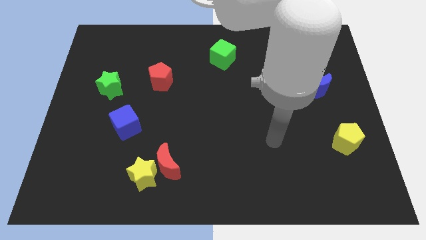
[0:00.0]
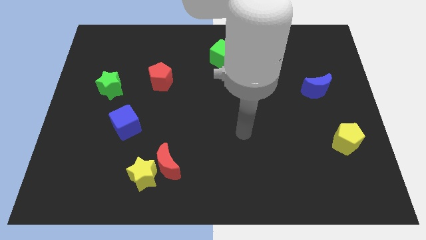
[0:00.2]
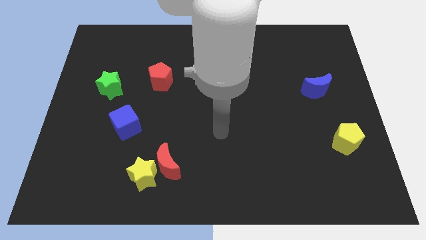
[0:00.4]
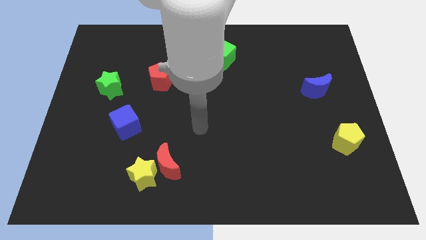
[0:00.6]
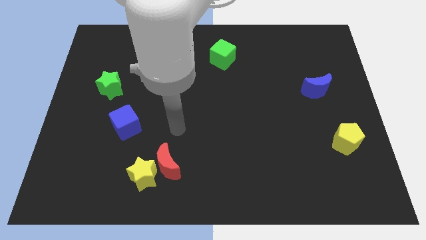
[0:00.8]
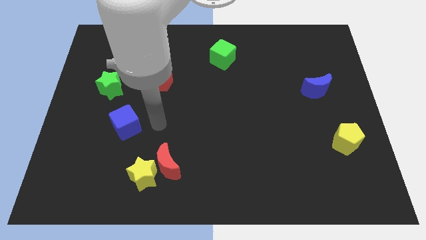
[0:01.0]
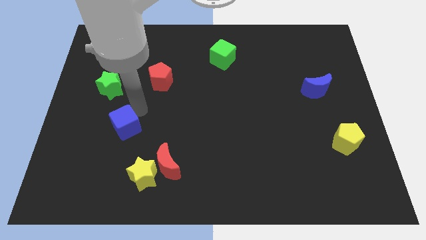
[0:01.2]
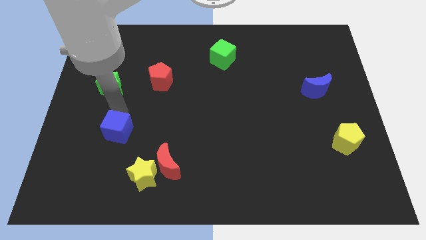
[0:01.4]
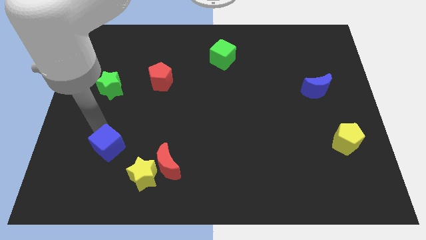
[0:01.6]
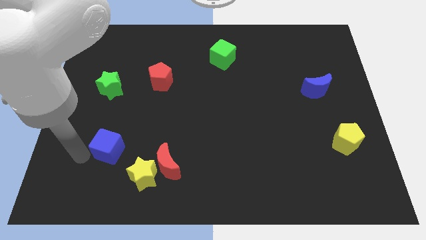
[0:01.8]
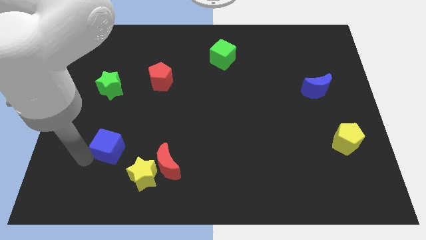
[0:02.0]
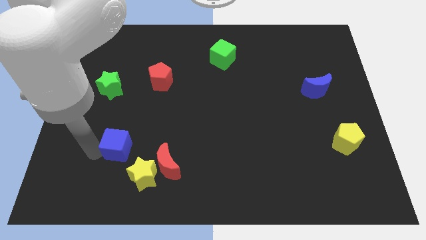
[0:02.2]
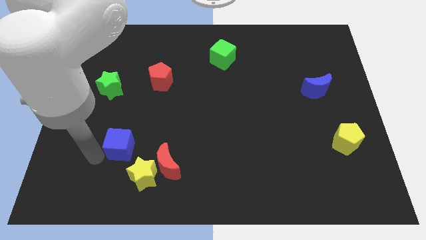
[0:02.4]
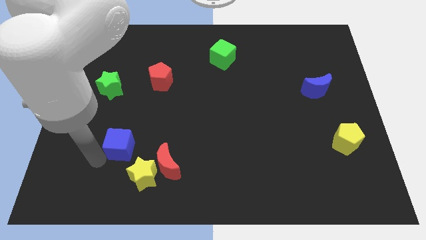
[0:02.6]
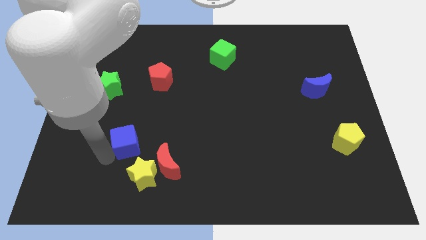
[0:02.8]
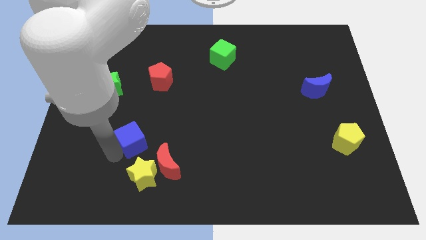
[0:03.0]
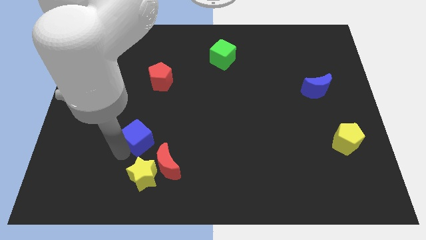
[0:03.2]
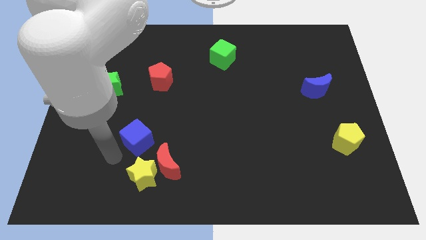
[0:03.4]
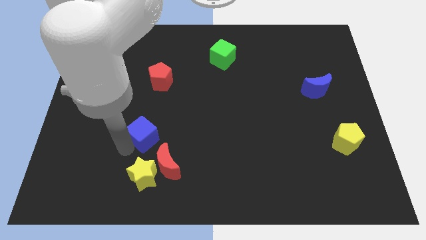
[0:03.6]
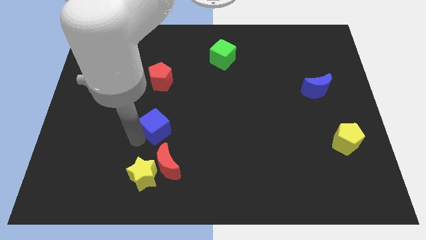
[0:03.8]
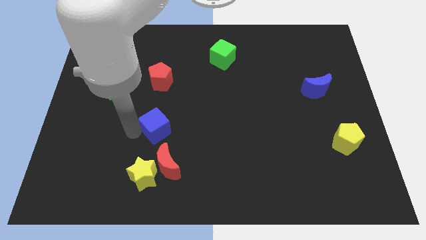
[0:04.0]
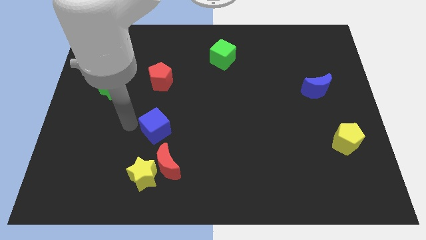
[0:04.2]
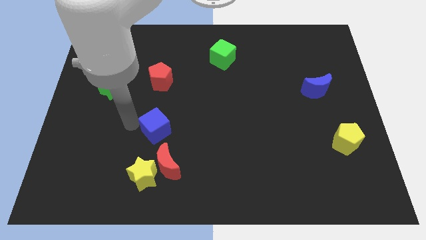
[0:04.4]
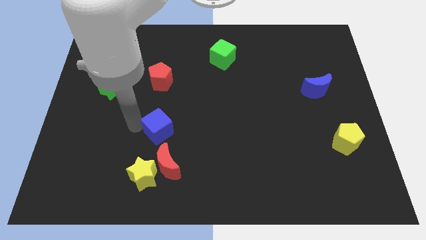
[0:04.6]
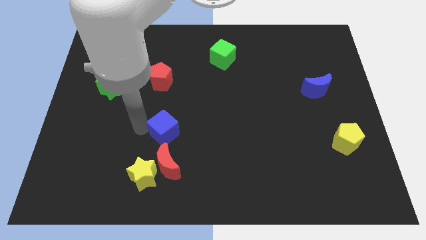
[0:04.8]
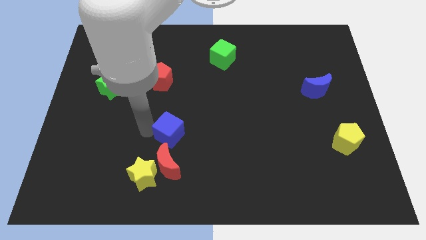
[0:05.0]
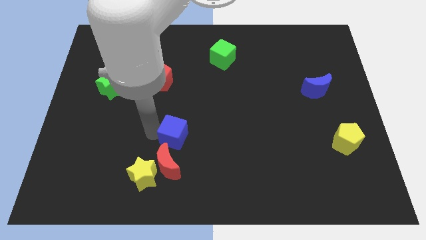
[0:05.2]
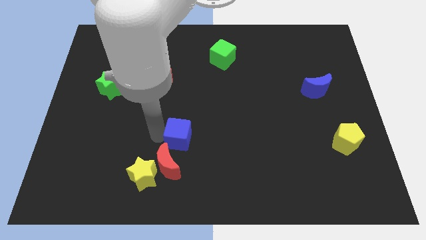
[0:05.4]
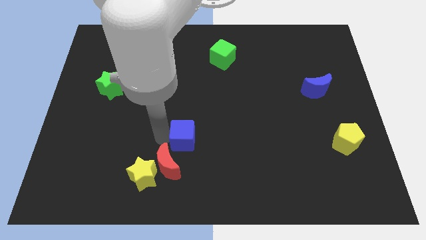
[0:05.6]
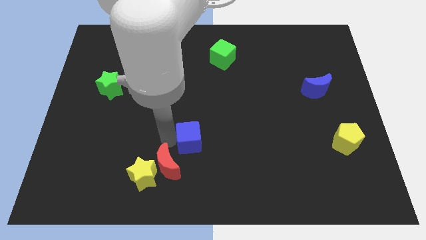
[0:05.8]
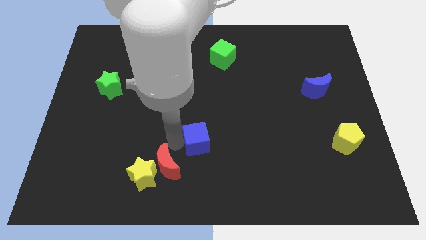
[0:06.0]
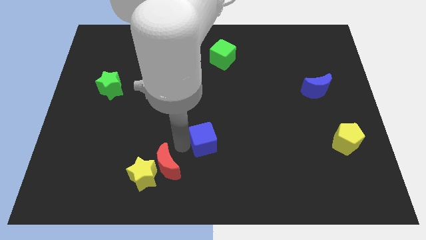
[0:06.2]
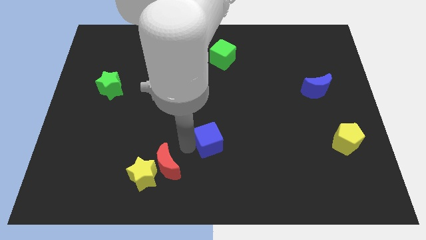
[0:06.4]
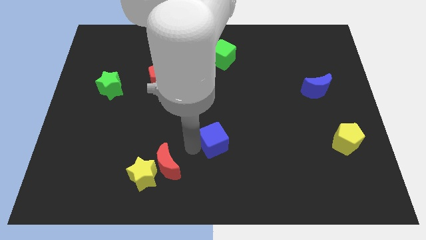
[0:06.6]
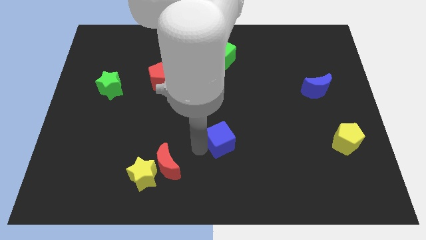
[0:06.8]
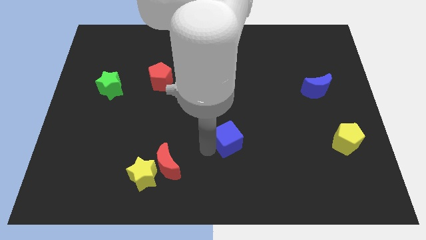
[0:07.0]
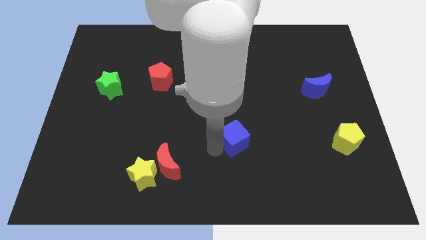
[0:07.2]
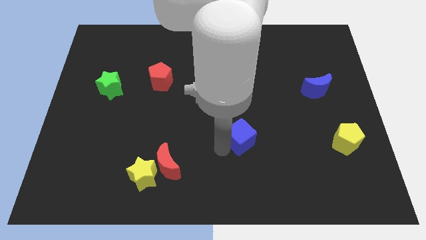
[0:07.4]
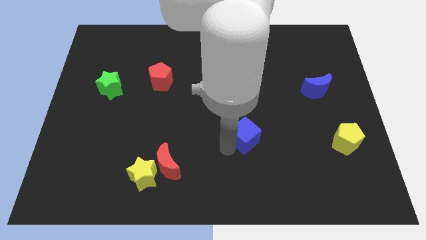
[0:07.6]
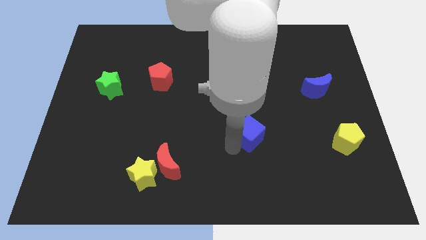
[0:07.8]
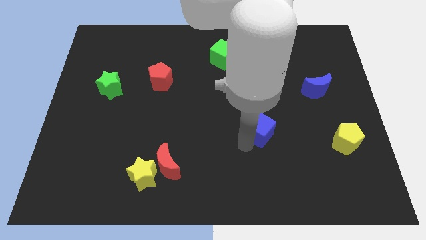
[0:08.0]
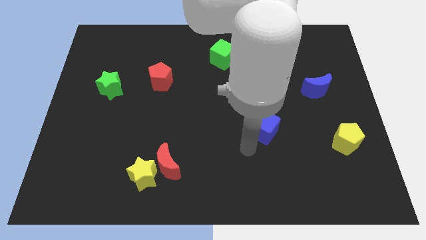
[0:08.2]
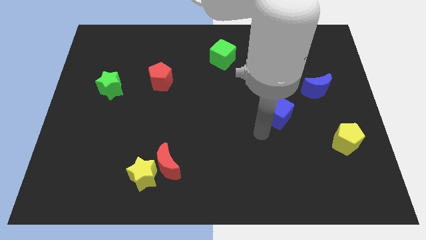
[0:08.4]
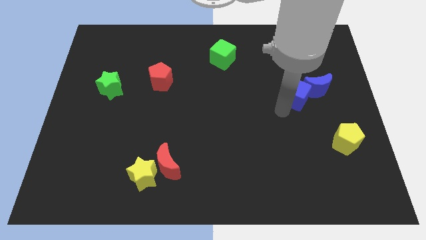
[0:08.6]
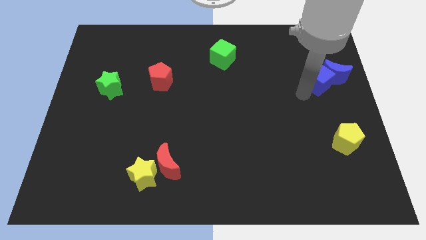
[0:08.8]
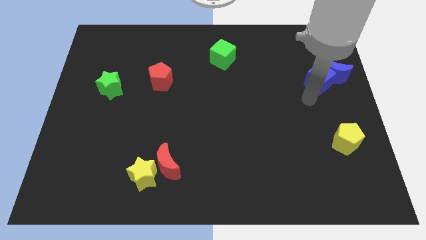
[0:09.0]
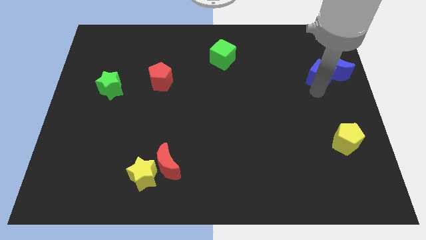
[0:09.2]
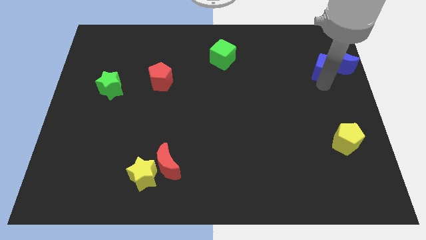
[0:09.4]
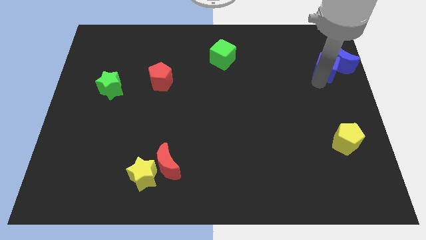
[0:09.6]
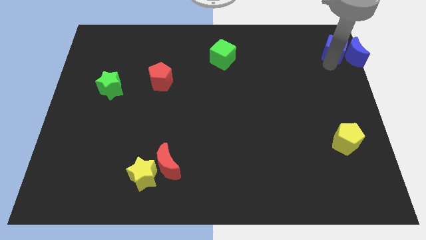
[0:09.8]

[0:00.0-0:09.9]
put the blue cube to the upper right corner

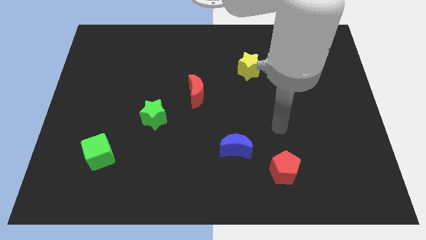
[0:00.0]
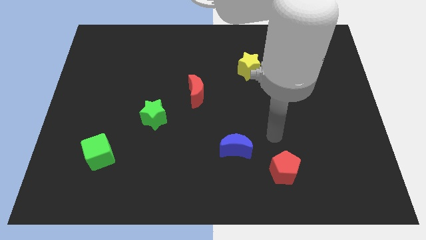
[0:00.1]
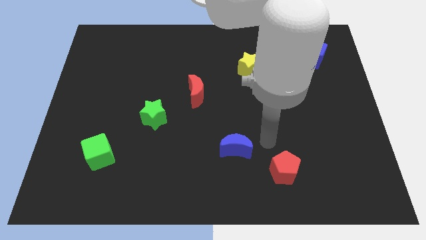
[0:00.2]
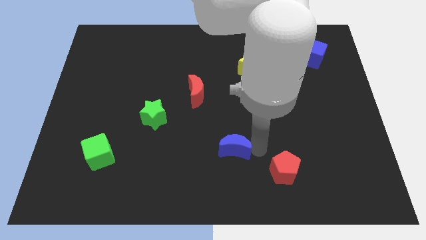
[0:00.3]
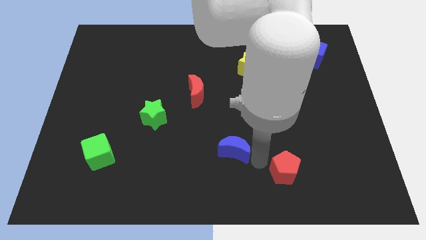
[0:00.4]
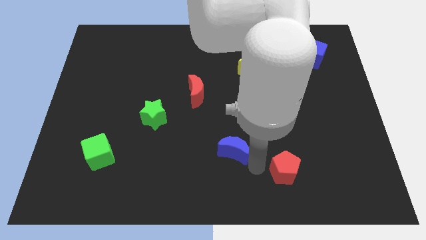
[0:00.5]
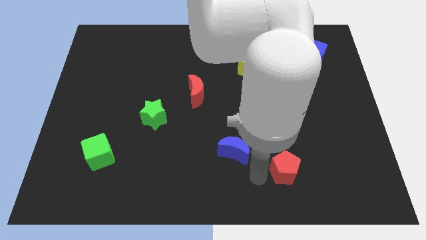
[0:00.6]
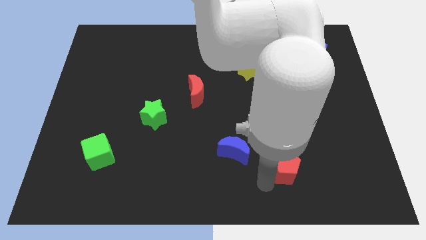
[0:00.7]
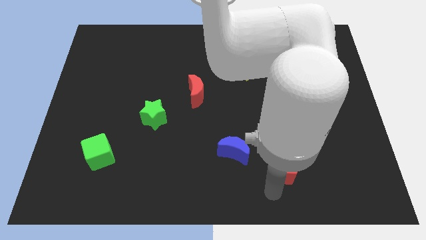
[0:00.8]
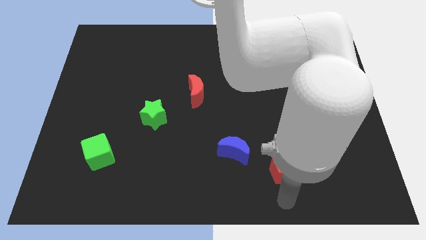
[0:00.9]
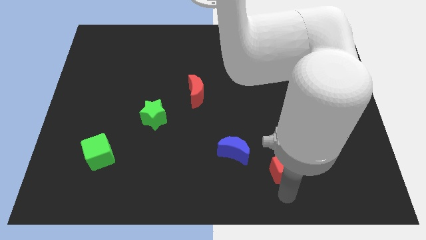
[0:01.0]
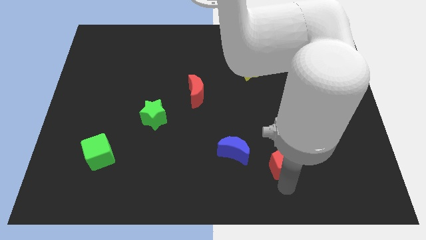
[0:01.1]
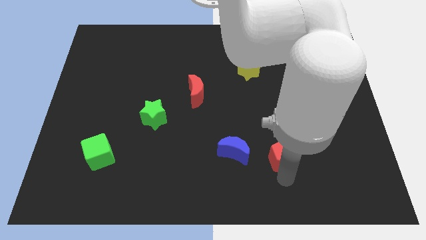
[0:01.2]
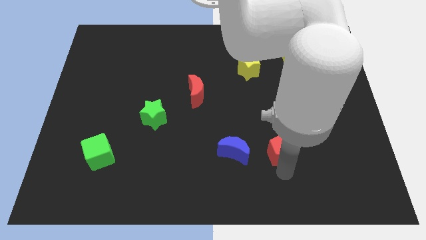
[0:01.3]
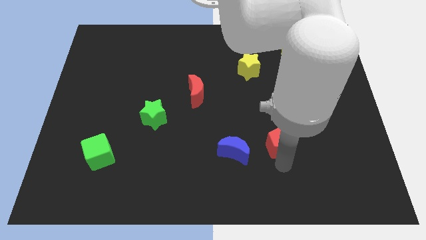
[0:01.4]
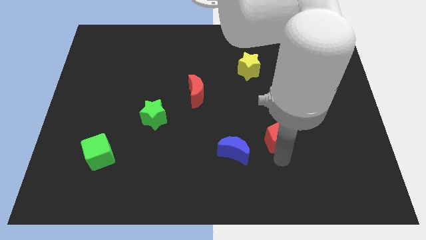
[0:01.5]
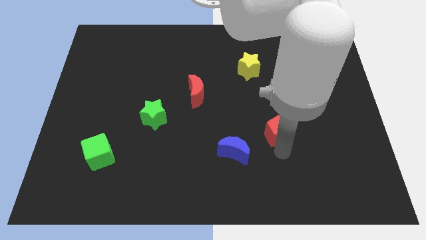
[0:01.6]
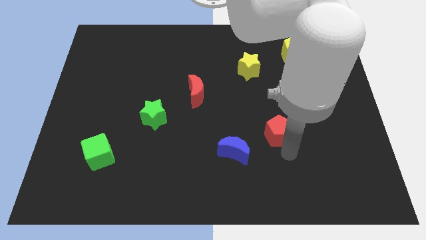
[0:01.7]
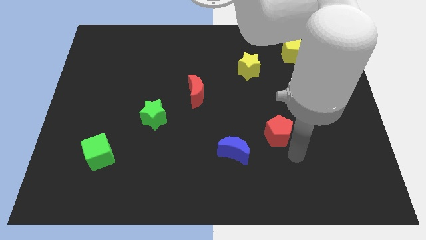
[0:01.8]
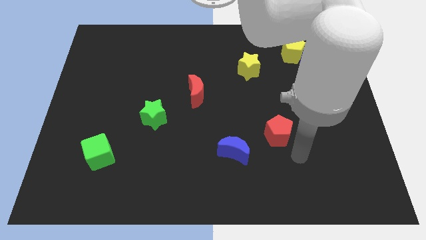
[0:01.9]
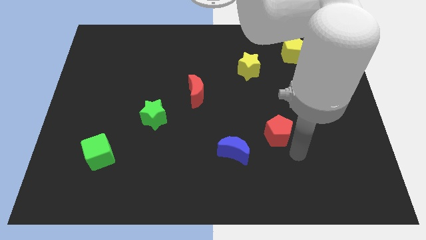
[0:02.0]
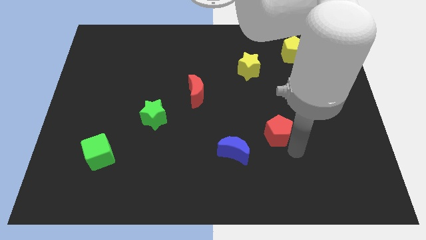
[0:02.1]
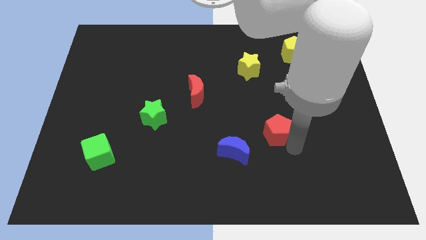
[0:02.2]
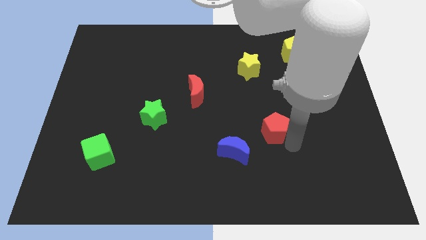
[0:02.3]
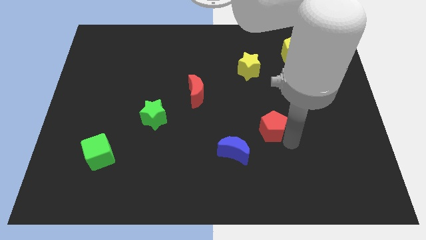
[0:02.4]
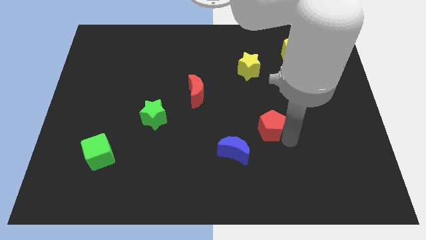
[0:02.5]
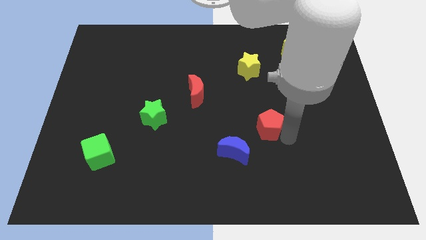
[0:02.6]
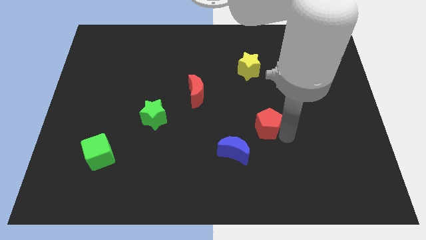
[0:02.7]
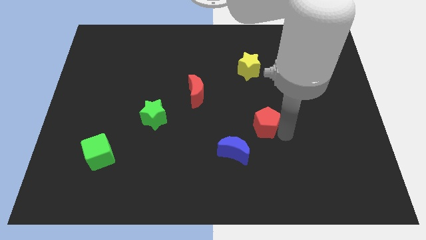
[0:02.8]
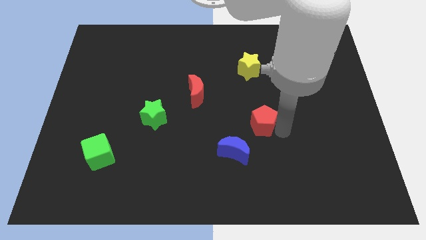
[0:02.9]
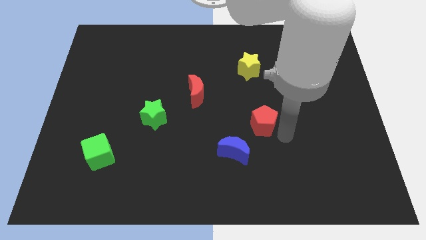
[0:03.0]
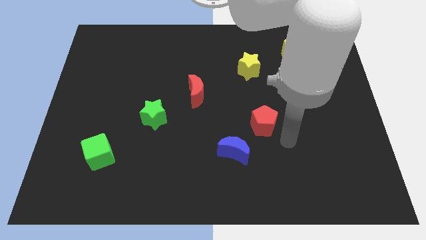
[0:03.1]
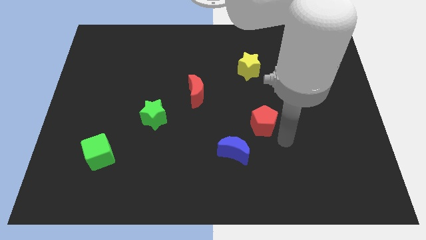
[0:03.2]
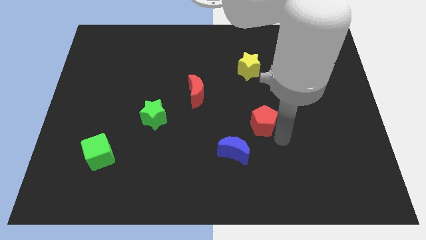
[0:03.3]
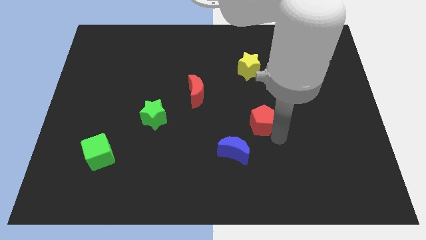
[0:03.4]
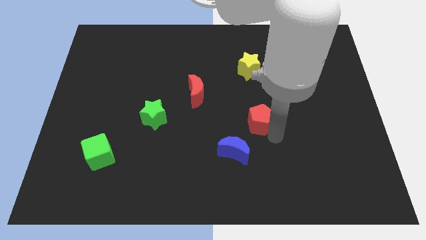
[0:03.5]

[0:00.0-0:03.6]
move the red pentagon to the center of the board
